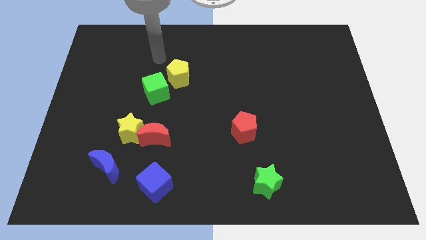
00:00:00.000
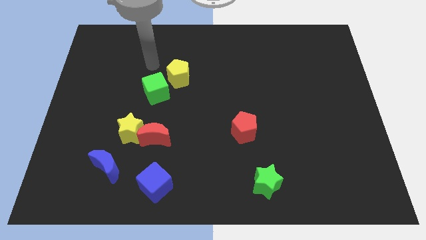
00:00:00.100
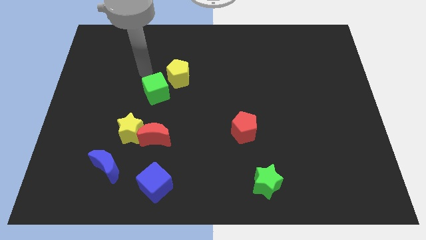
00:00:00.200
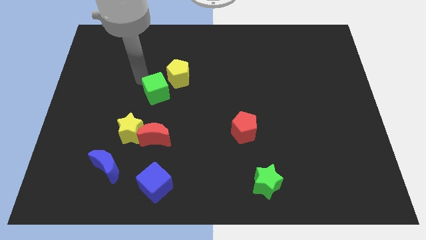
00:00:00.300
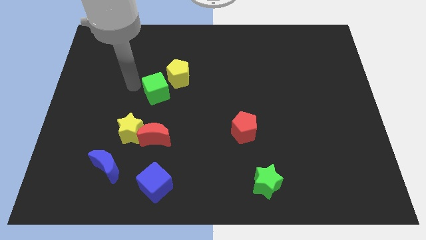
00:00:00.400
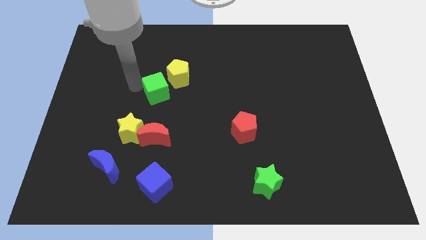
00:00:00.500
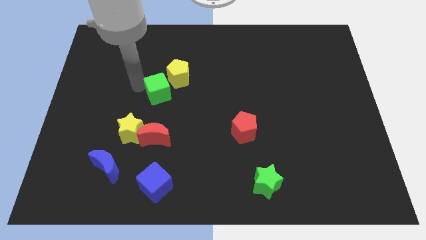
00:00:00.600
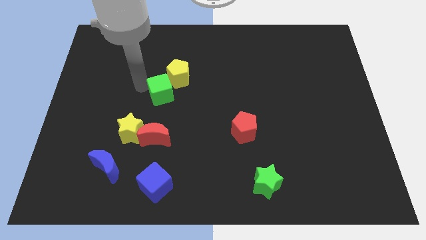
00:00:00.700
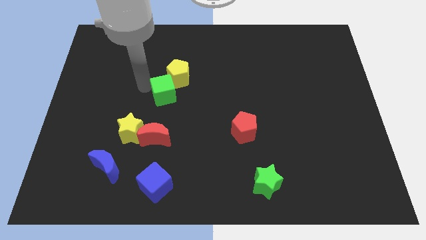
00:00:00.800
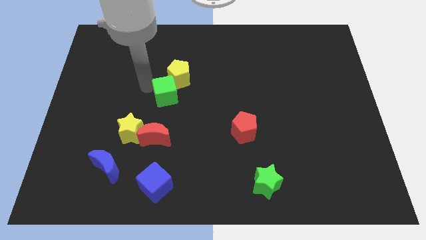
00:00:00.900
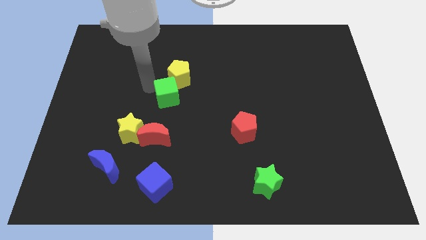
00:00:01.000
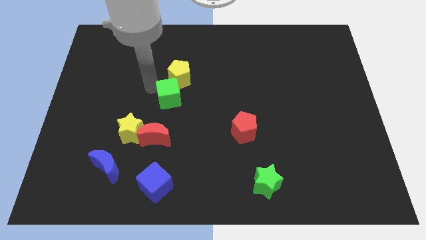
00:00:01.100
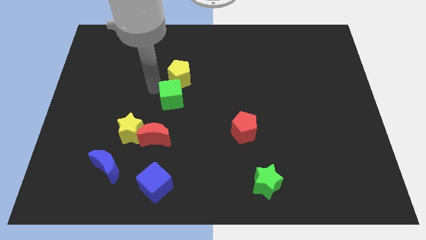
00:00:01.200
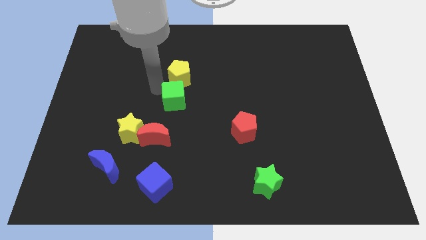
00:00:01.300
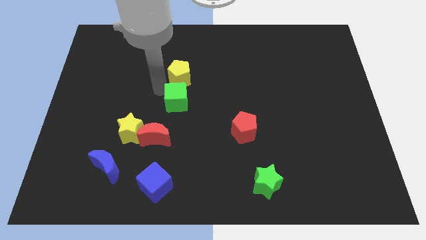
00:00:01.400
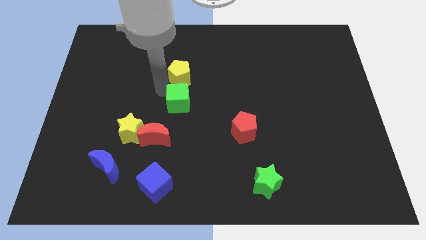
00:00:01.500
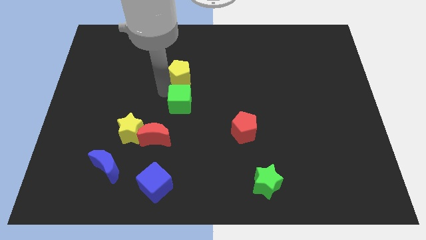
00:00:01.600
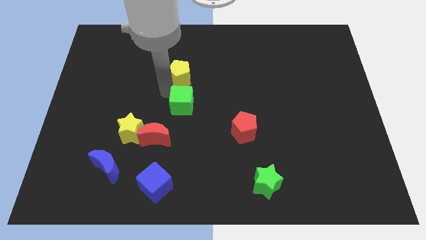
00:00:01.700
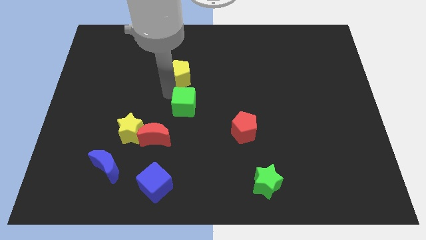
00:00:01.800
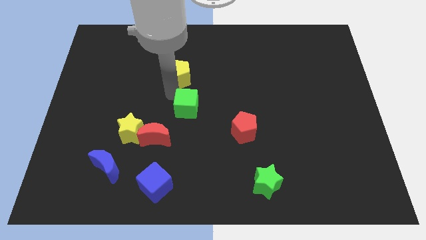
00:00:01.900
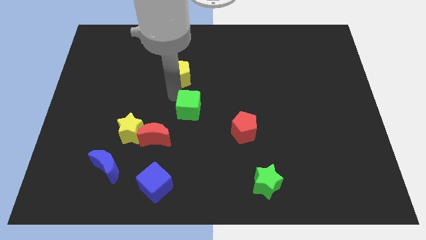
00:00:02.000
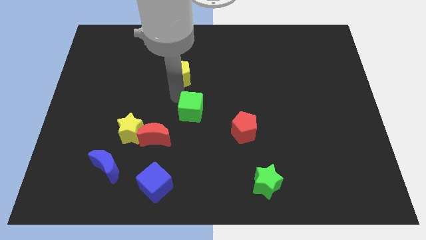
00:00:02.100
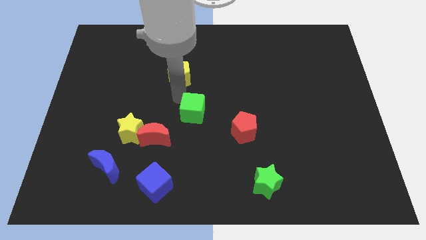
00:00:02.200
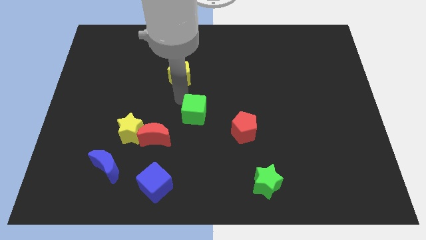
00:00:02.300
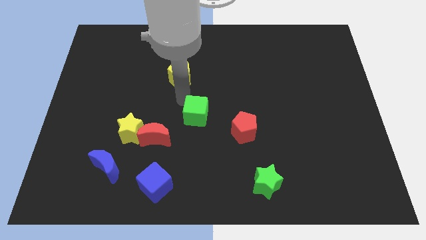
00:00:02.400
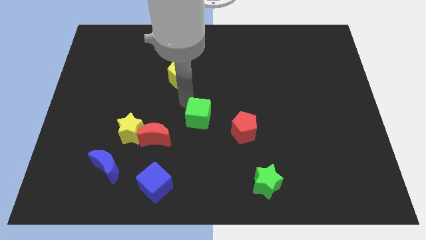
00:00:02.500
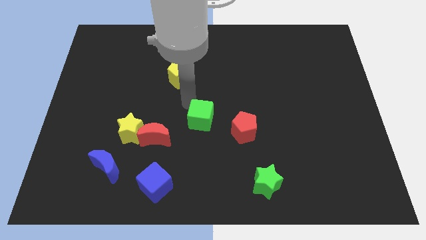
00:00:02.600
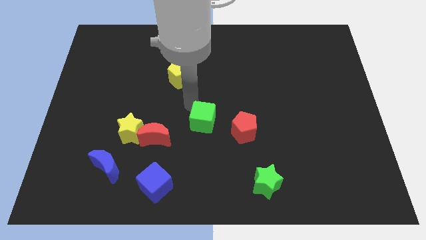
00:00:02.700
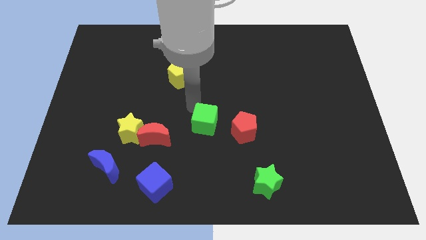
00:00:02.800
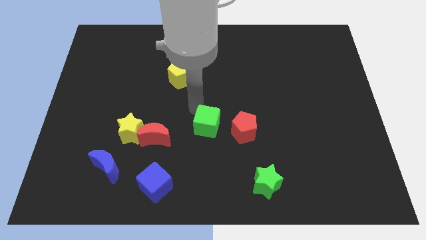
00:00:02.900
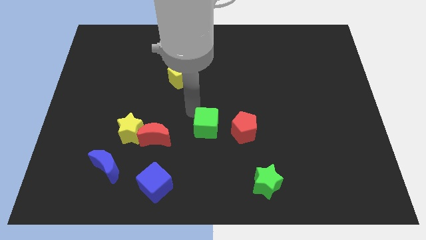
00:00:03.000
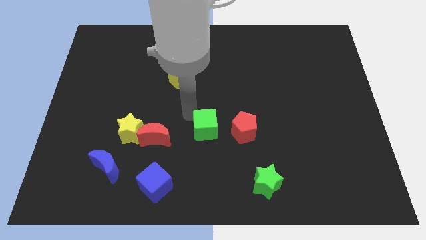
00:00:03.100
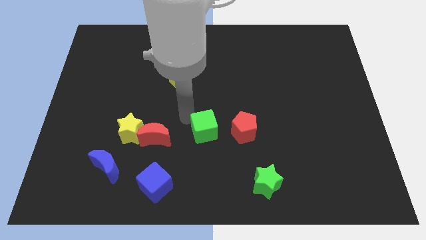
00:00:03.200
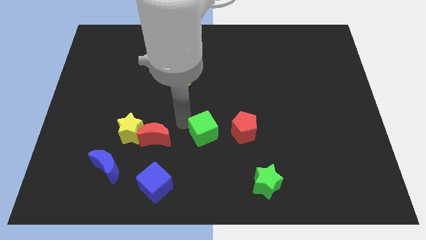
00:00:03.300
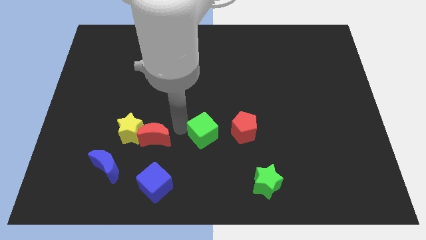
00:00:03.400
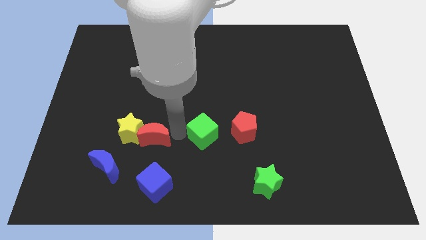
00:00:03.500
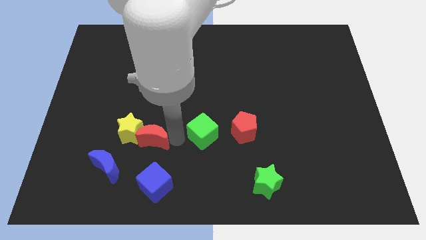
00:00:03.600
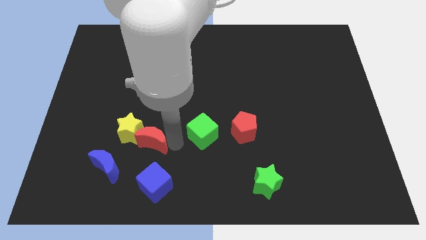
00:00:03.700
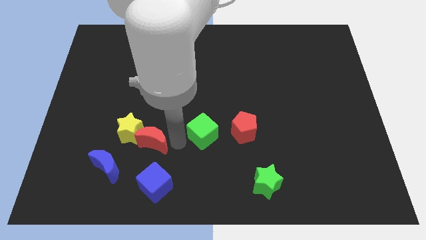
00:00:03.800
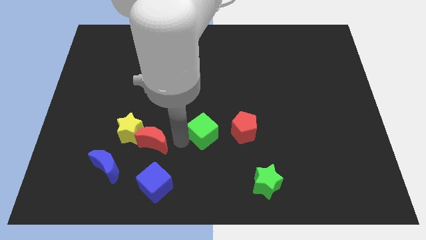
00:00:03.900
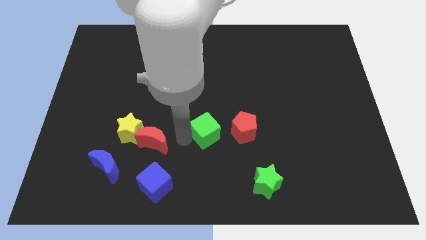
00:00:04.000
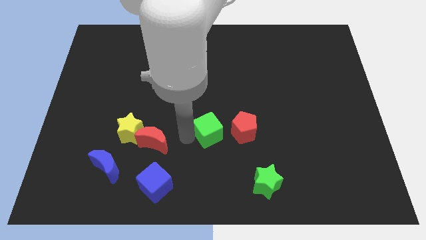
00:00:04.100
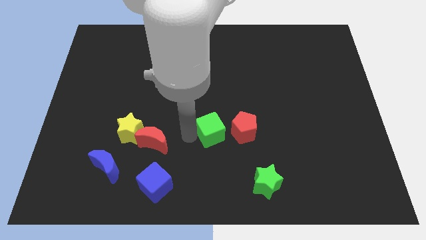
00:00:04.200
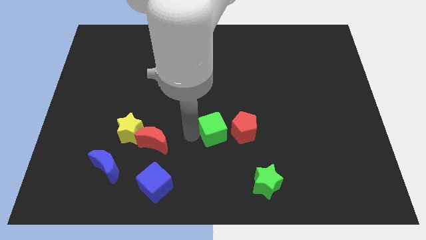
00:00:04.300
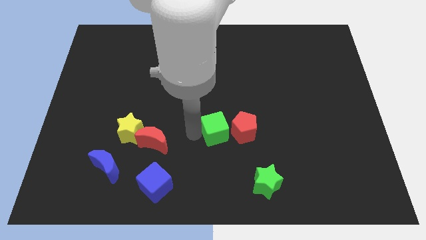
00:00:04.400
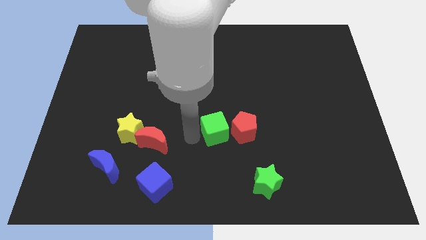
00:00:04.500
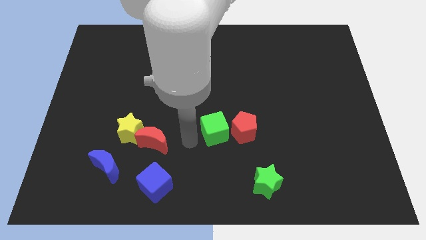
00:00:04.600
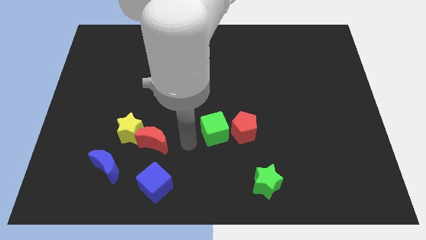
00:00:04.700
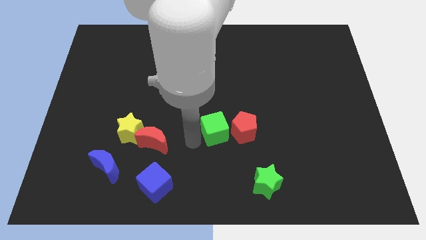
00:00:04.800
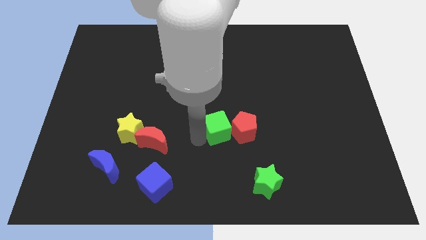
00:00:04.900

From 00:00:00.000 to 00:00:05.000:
slide the green cube towards the red pentagon

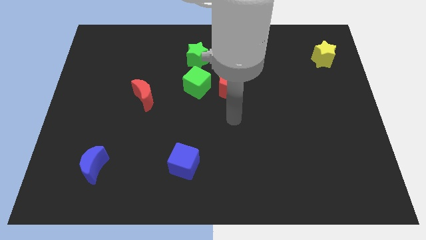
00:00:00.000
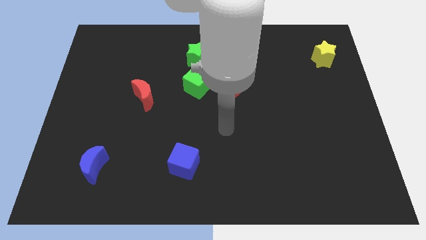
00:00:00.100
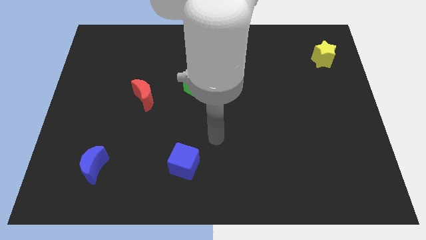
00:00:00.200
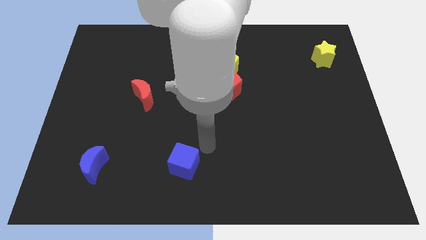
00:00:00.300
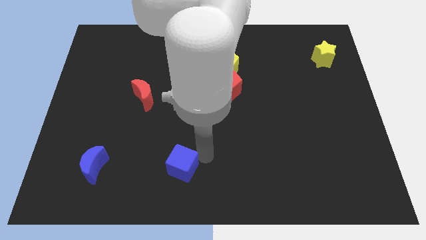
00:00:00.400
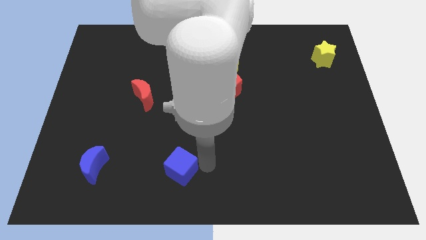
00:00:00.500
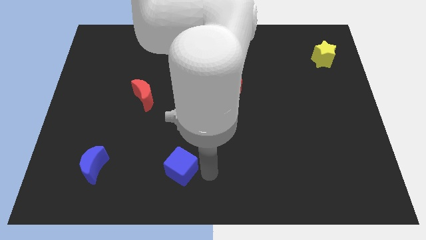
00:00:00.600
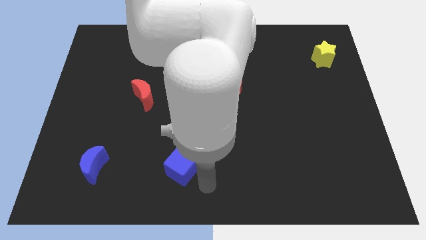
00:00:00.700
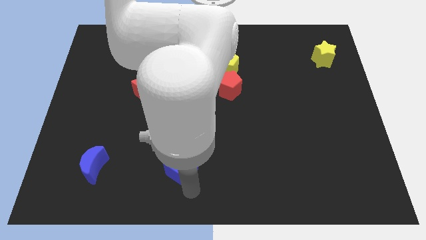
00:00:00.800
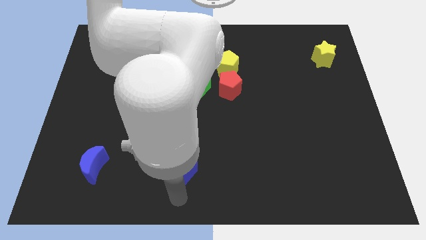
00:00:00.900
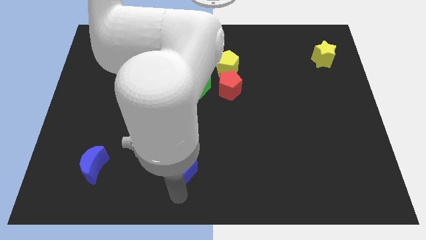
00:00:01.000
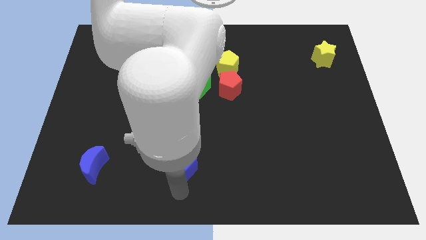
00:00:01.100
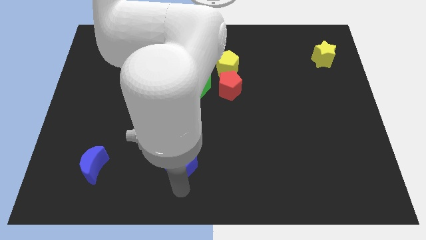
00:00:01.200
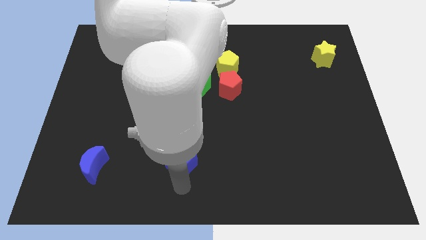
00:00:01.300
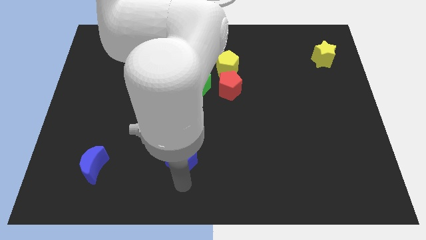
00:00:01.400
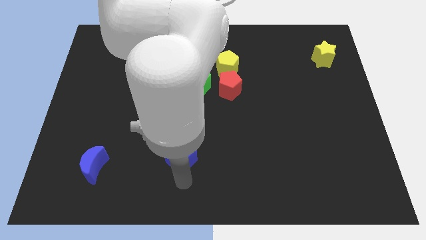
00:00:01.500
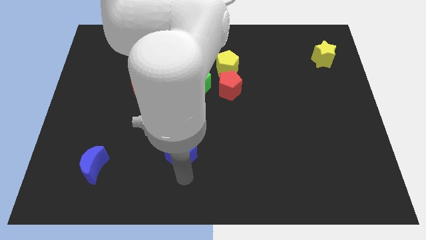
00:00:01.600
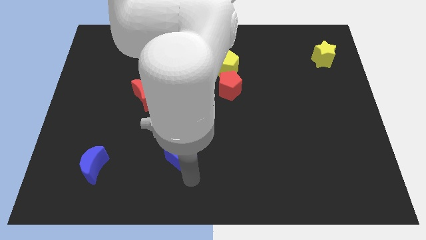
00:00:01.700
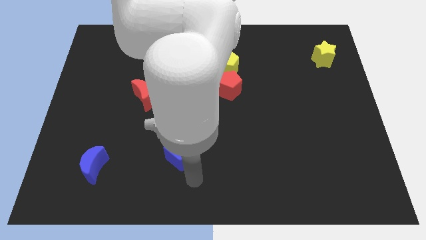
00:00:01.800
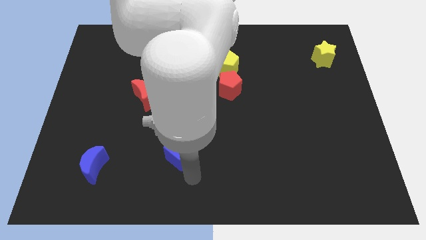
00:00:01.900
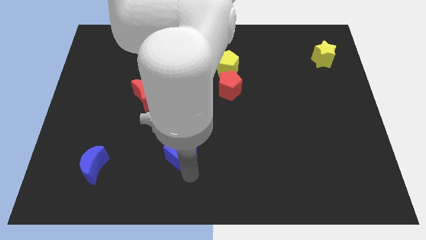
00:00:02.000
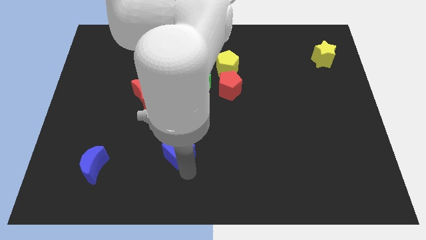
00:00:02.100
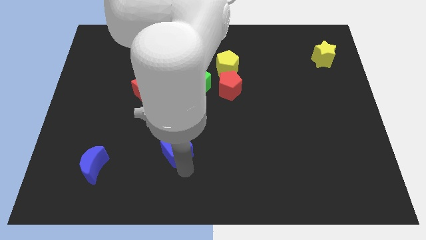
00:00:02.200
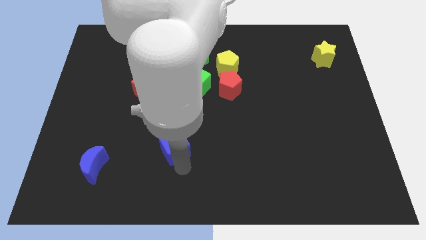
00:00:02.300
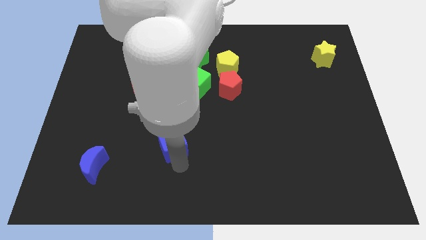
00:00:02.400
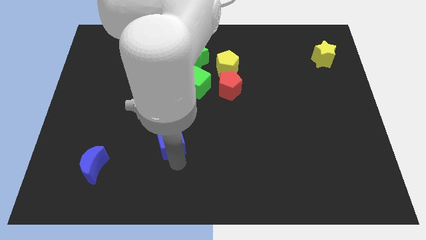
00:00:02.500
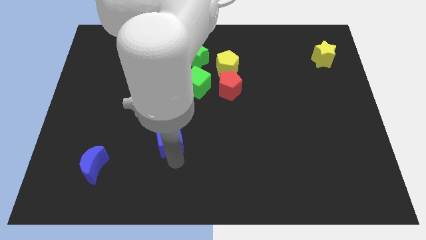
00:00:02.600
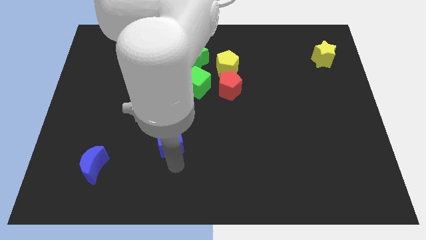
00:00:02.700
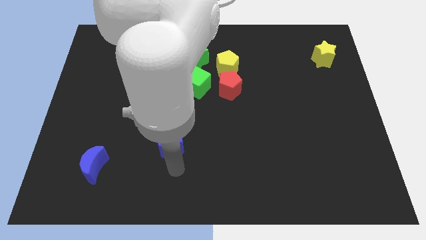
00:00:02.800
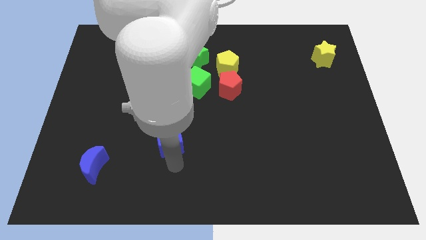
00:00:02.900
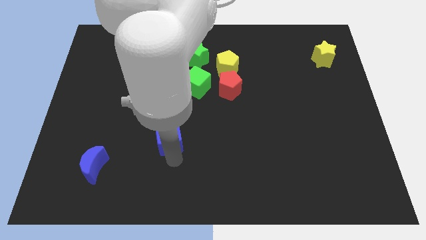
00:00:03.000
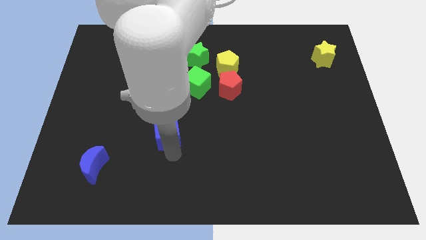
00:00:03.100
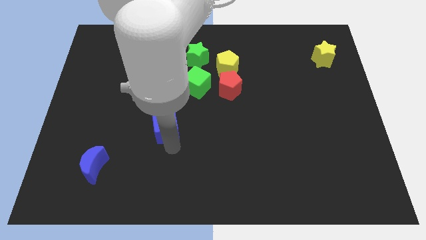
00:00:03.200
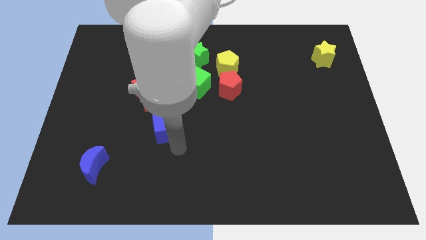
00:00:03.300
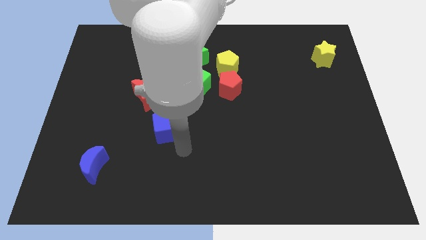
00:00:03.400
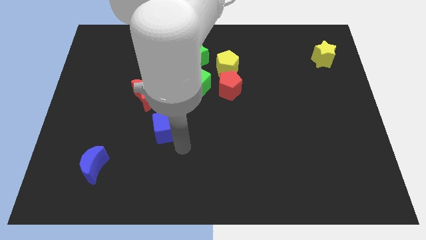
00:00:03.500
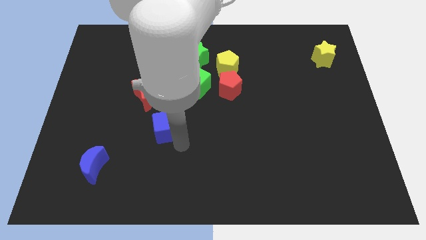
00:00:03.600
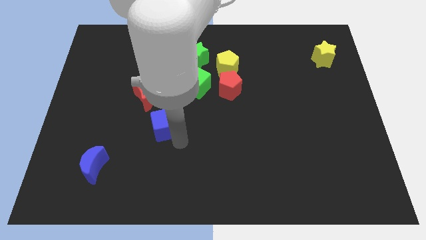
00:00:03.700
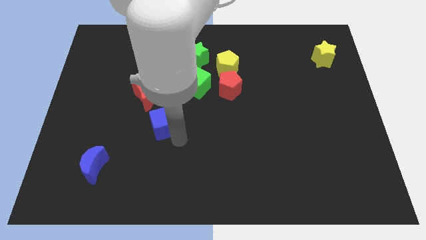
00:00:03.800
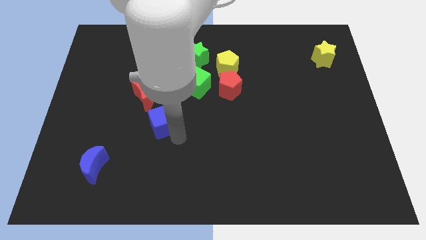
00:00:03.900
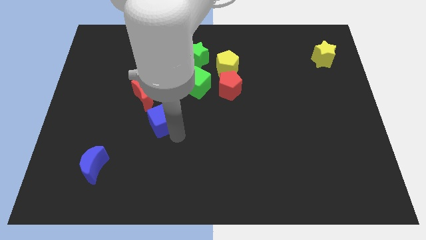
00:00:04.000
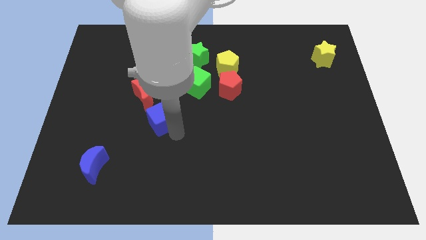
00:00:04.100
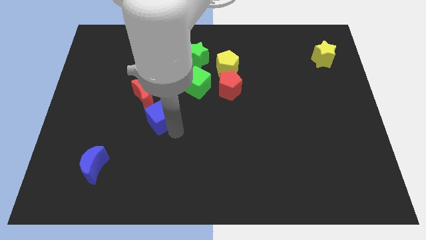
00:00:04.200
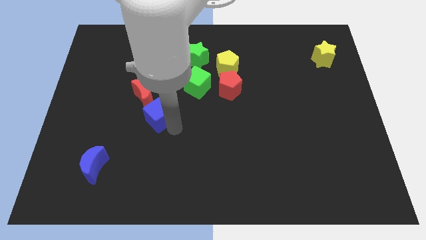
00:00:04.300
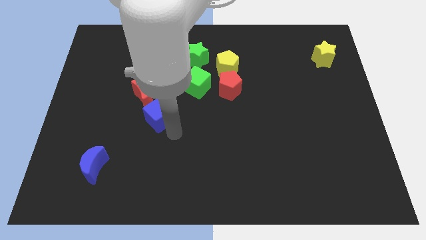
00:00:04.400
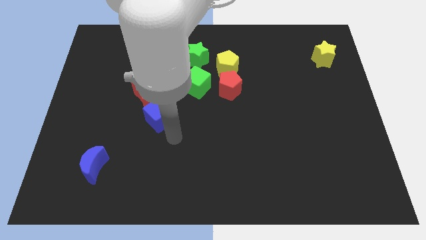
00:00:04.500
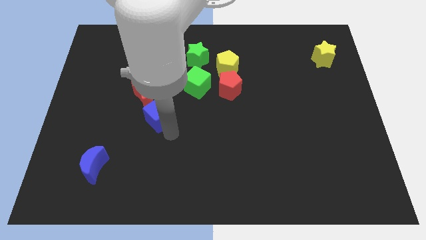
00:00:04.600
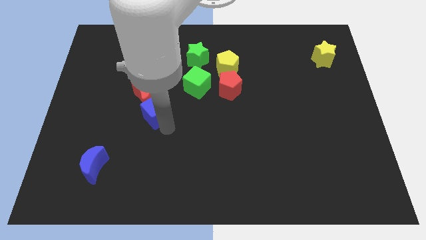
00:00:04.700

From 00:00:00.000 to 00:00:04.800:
slide the blue cube next to the red moon
